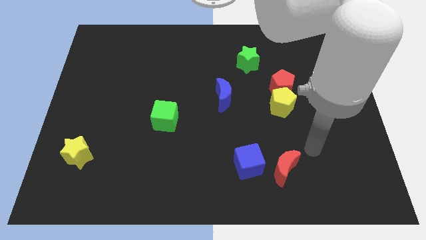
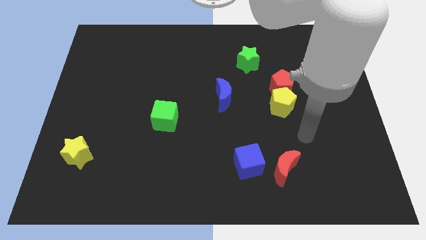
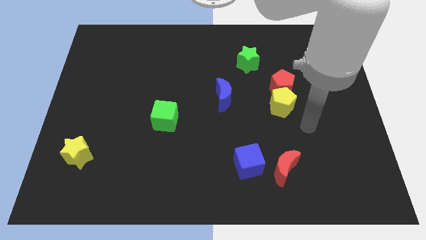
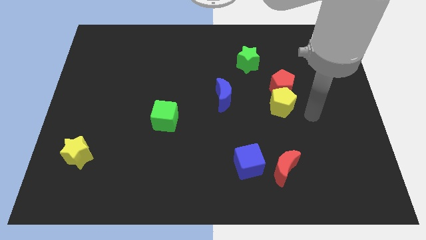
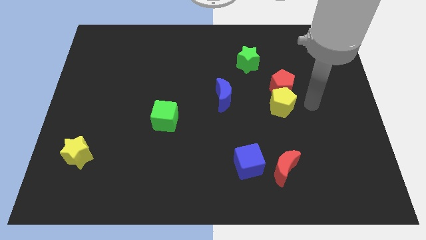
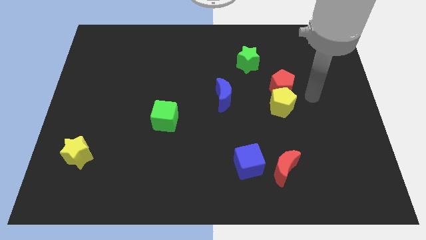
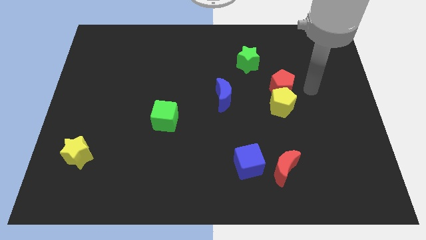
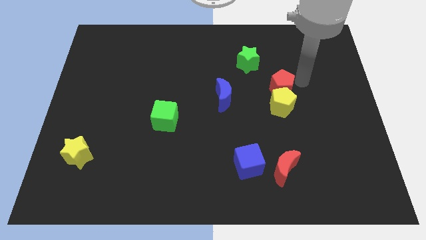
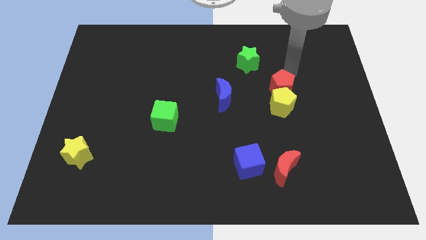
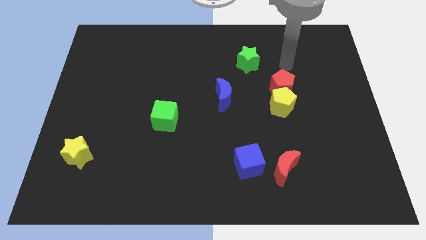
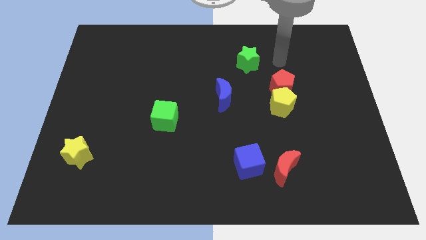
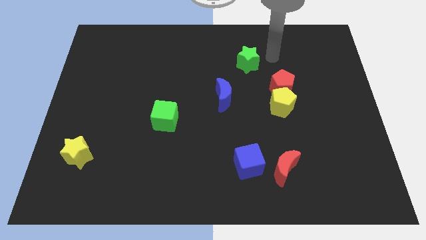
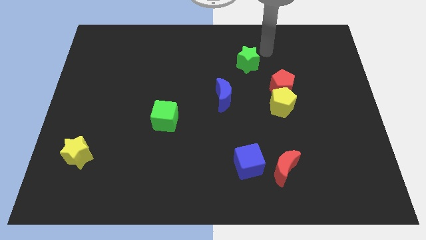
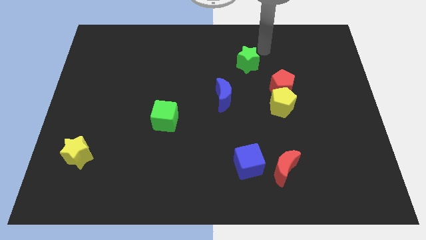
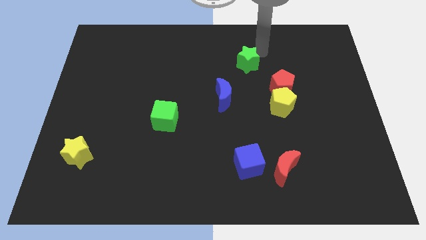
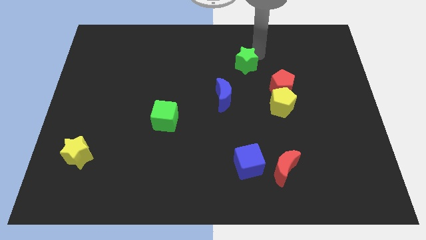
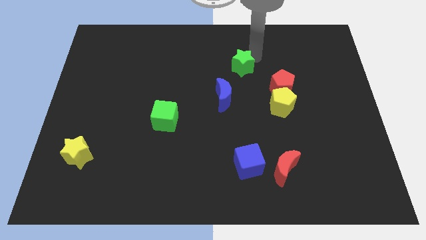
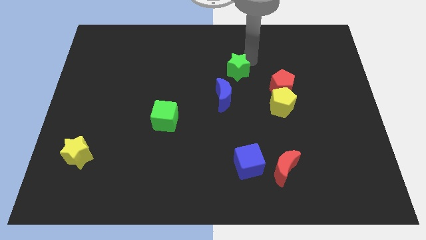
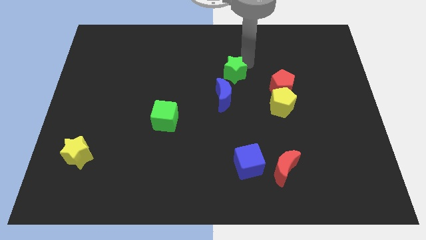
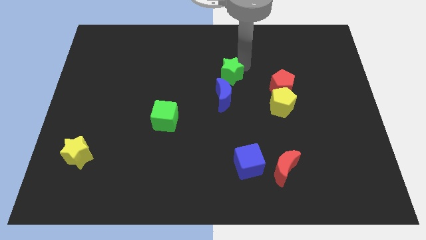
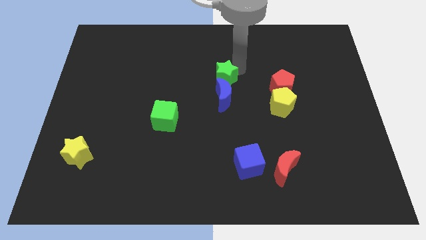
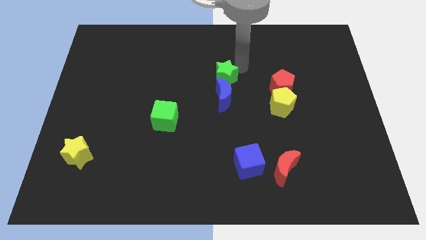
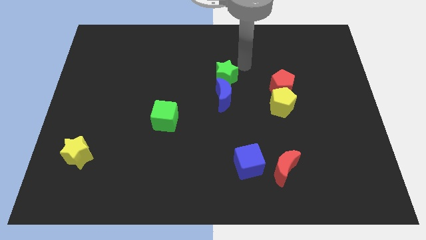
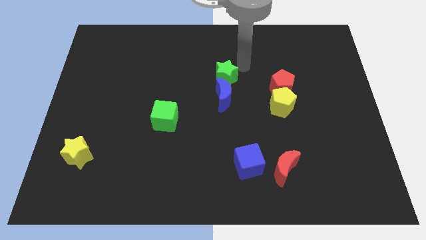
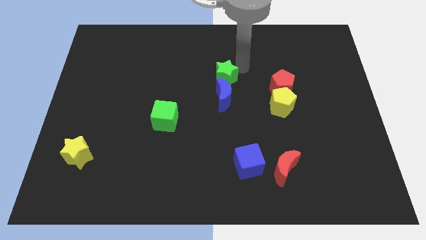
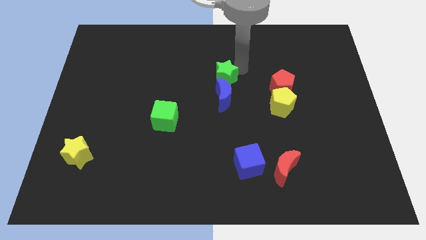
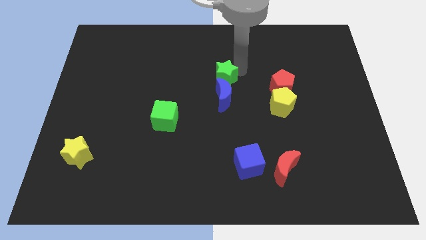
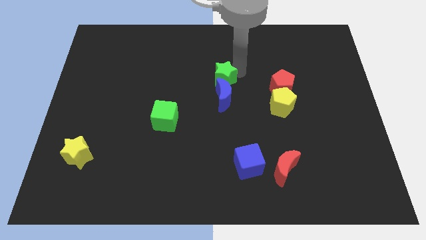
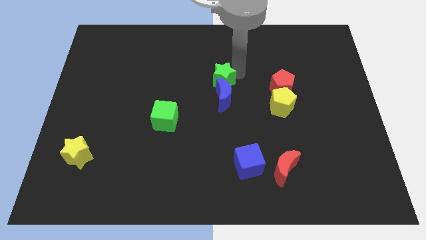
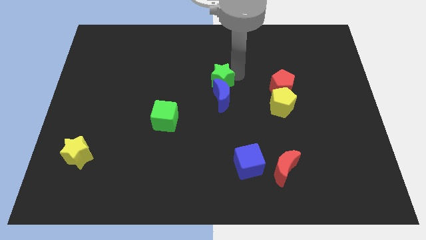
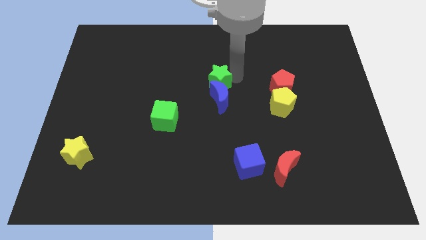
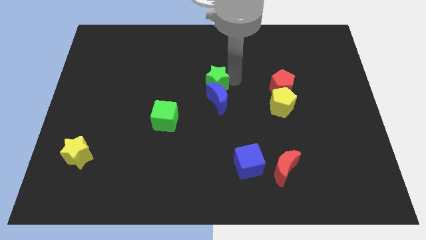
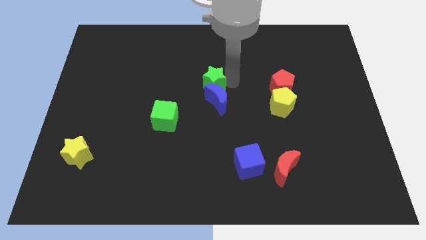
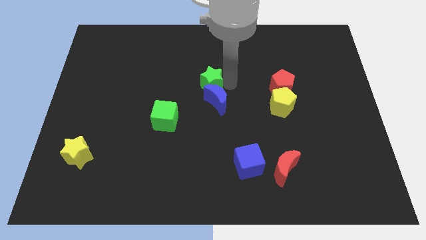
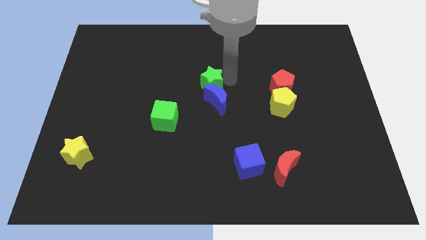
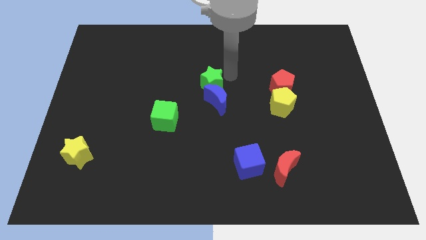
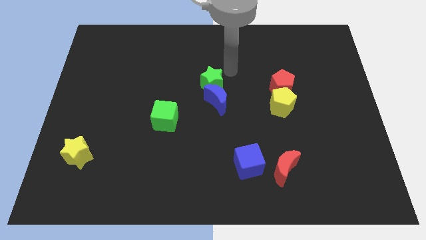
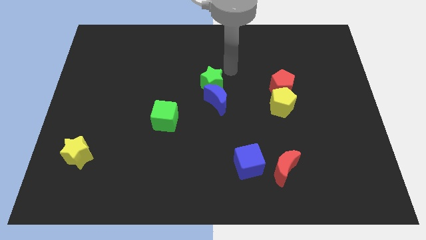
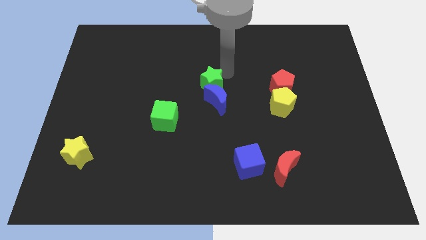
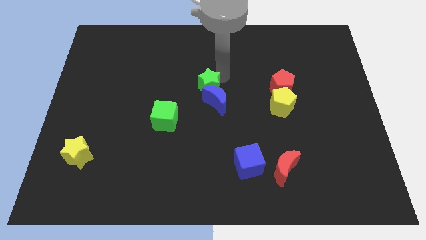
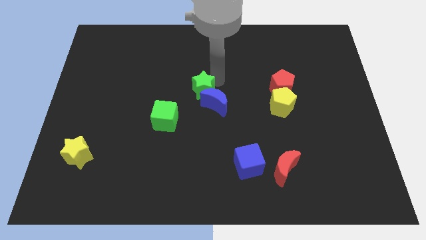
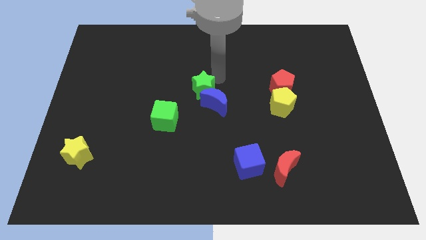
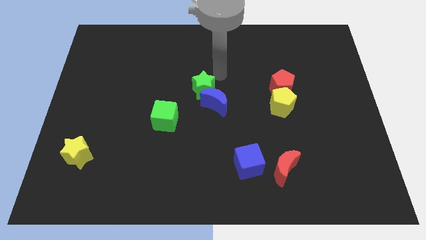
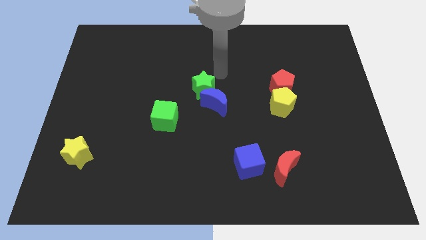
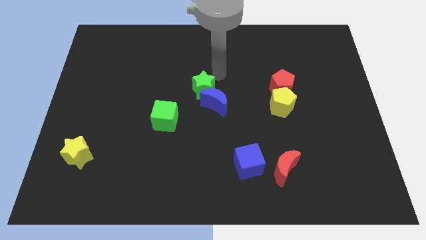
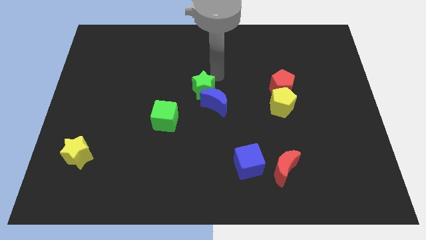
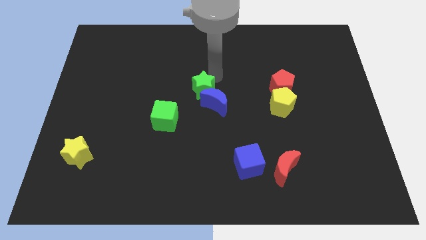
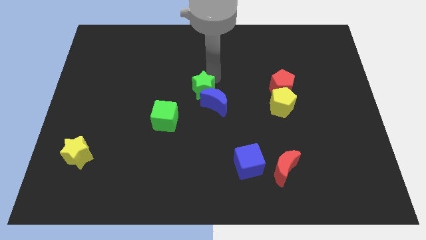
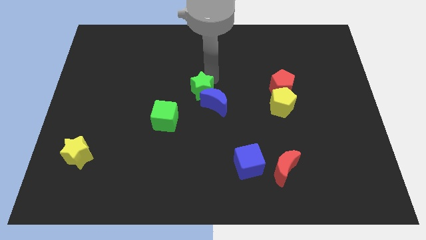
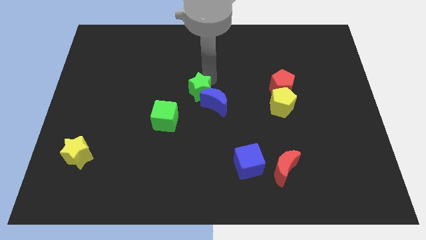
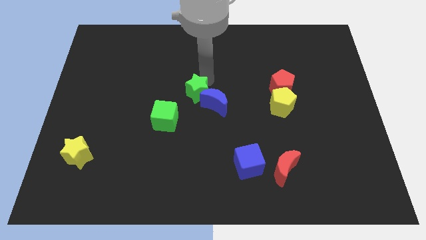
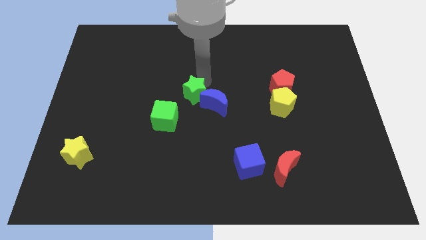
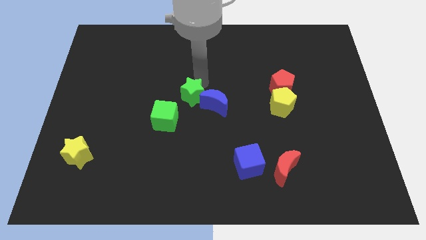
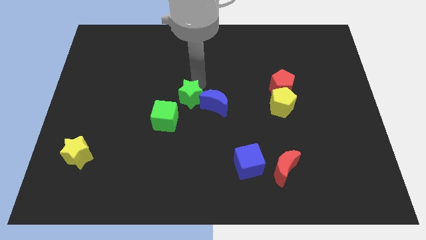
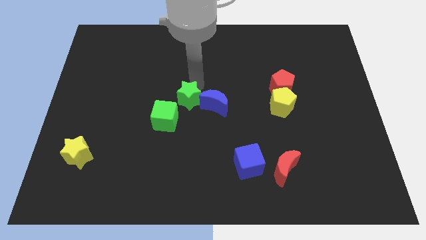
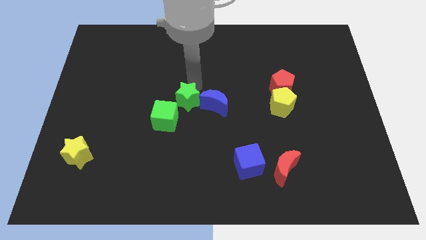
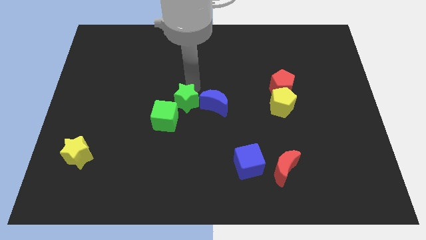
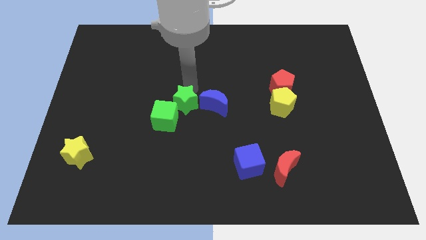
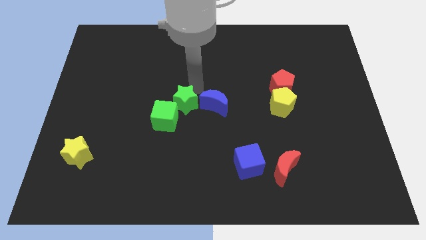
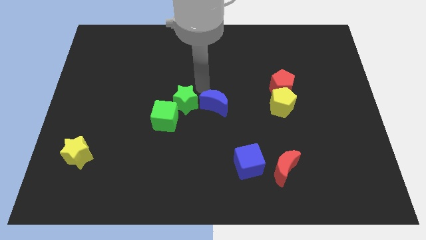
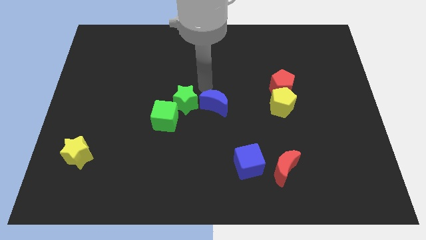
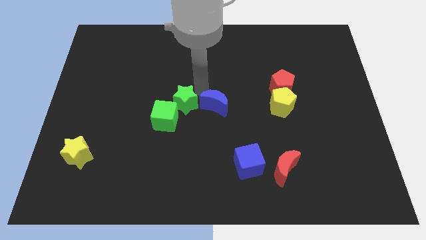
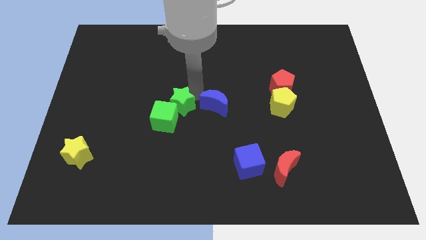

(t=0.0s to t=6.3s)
slide the green star next to the green cube

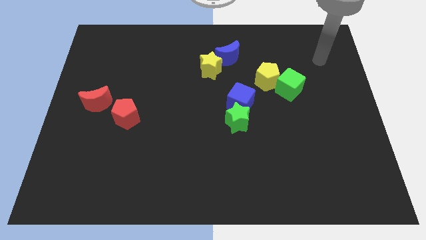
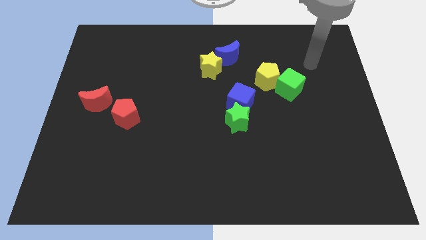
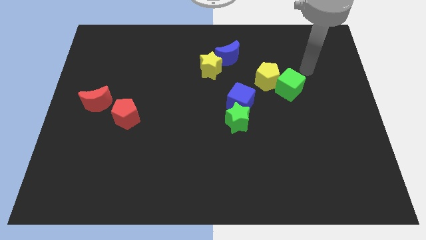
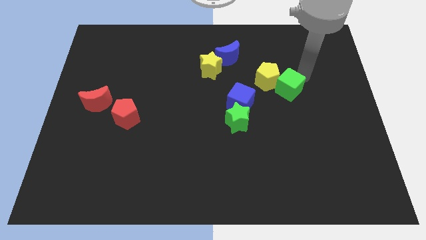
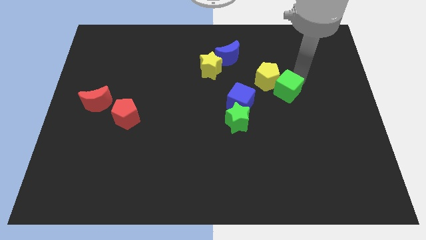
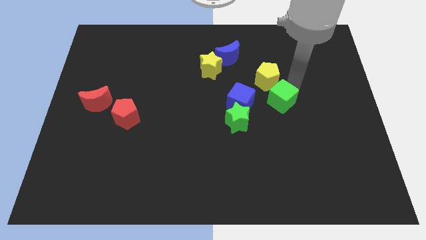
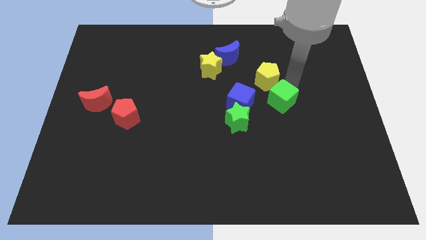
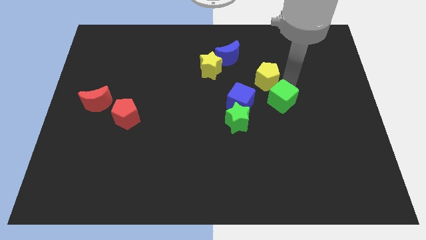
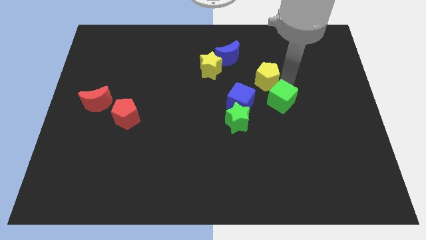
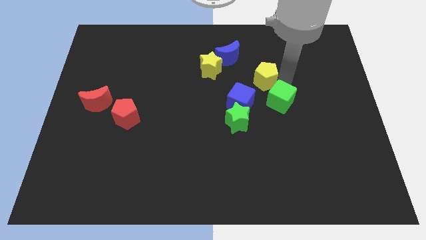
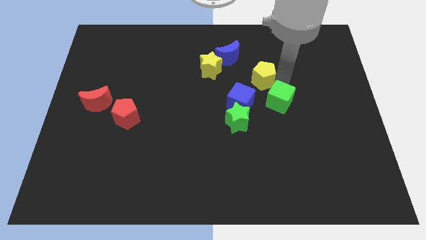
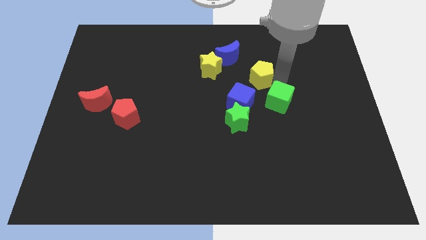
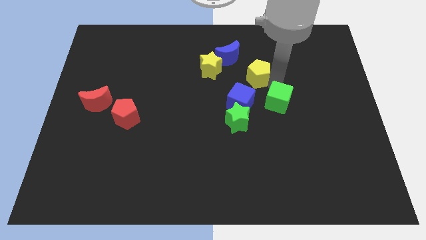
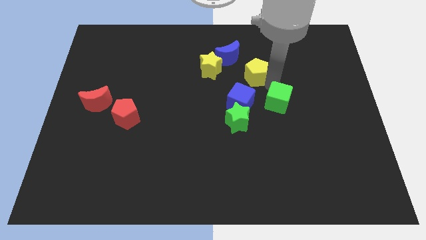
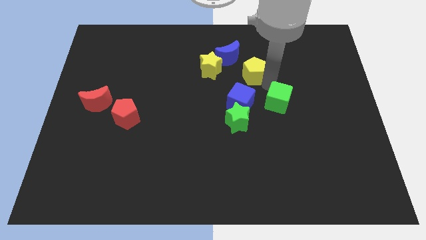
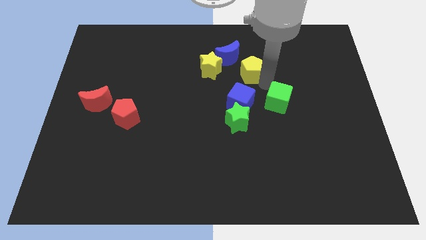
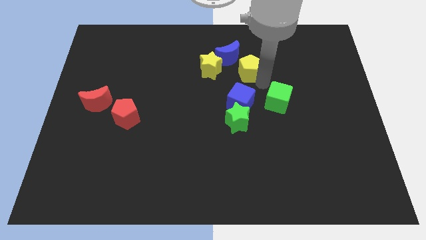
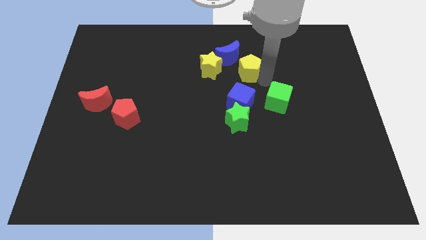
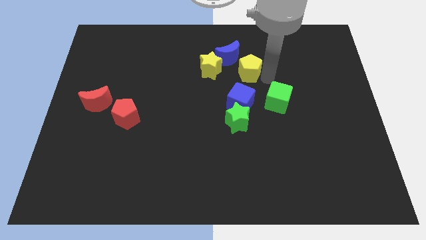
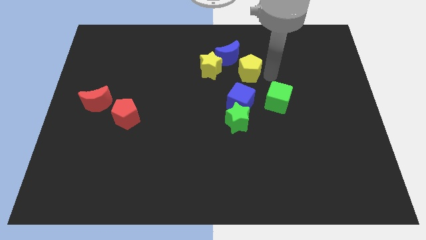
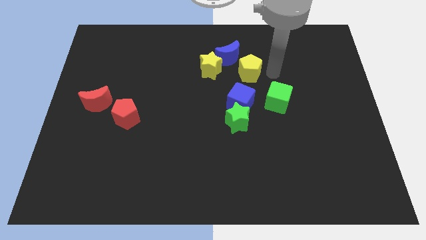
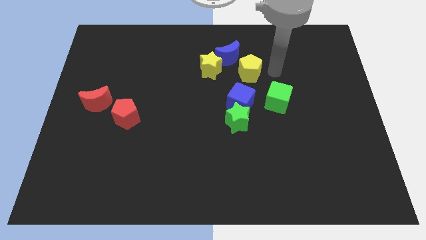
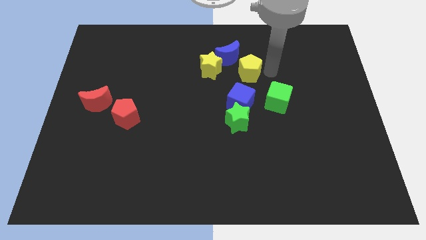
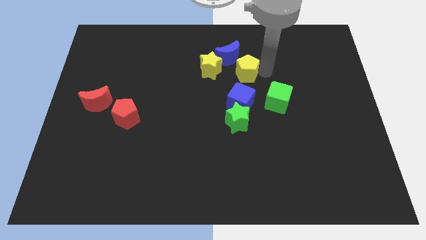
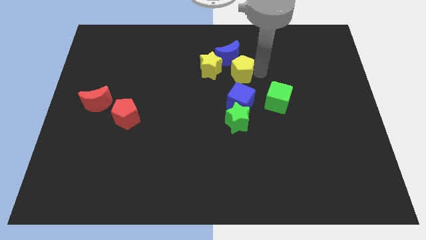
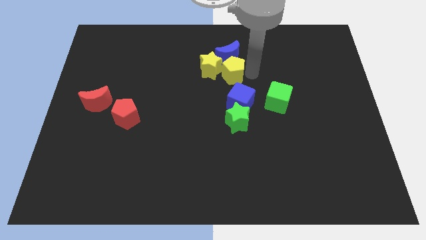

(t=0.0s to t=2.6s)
slide the yellow pentagon towards the yellow star
